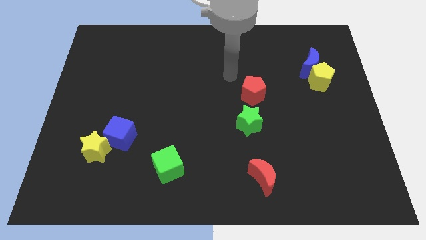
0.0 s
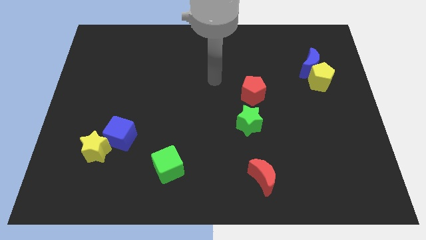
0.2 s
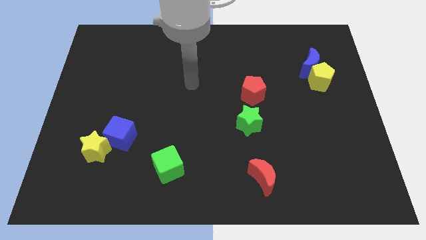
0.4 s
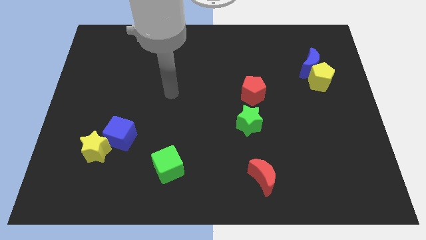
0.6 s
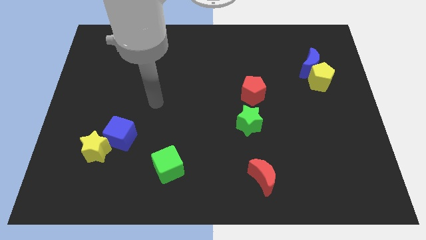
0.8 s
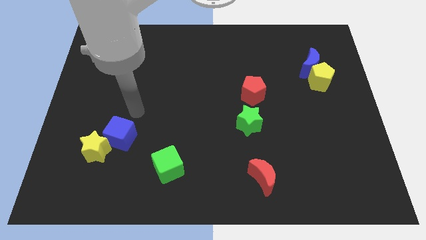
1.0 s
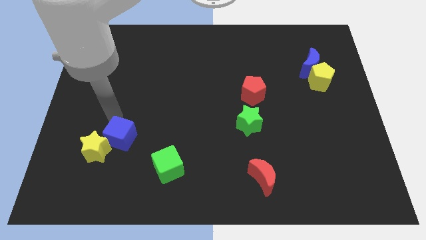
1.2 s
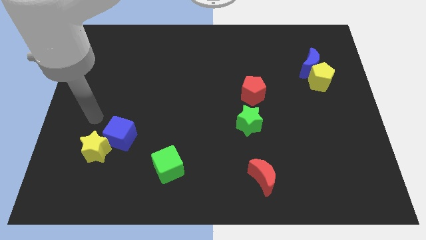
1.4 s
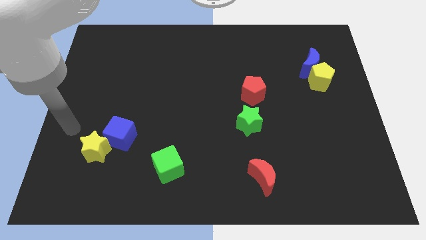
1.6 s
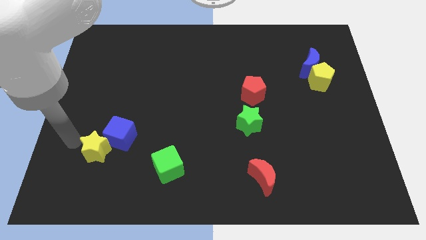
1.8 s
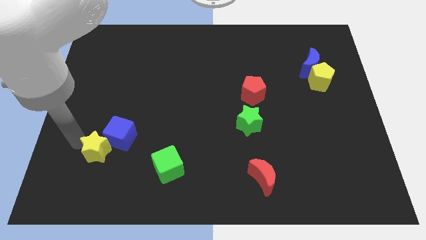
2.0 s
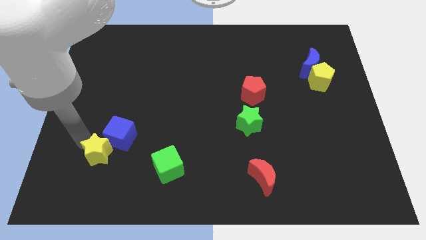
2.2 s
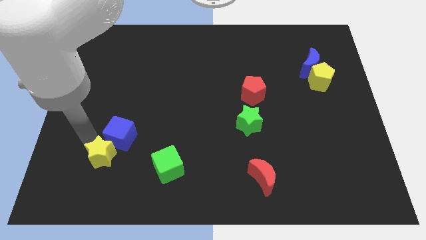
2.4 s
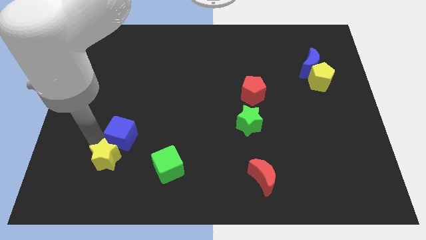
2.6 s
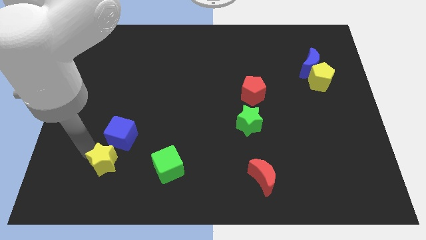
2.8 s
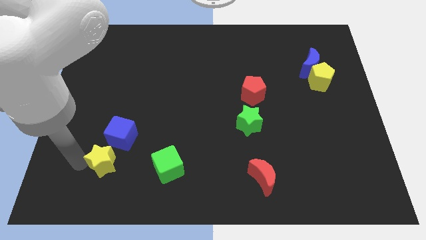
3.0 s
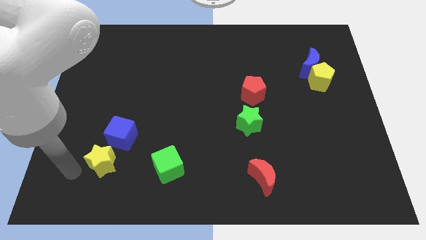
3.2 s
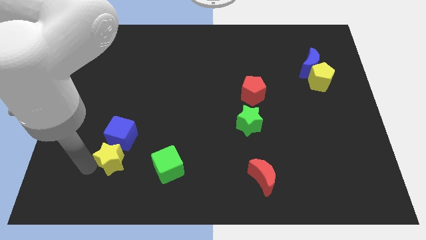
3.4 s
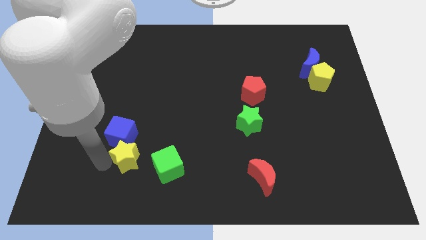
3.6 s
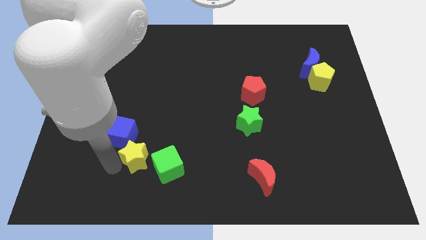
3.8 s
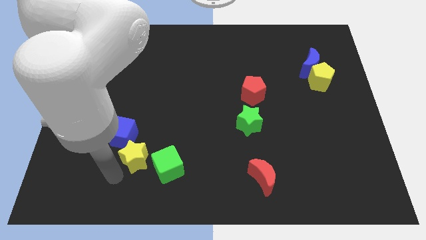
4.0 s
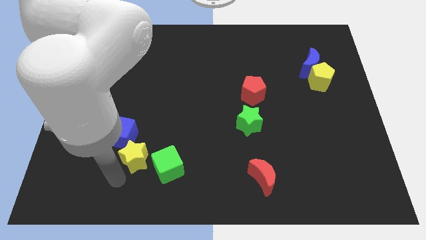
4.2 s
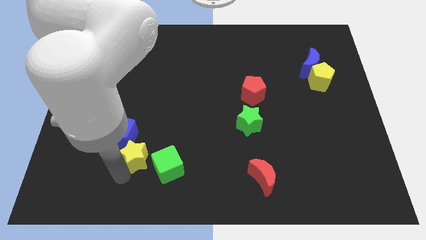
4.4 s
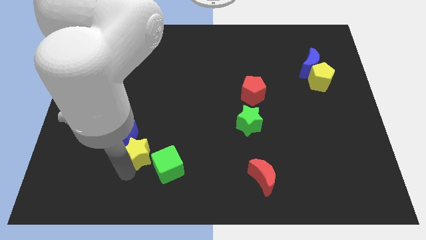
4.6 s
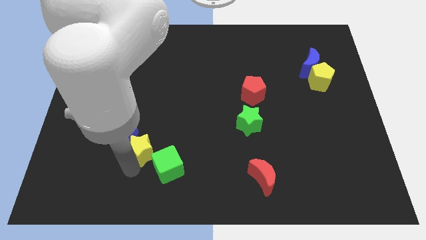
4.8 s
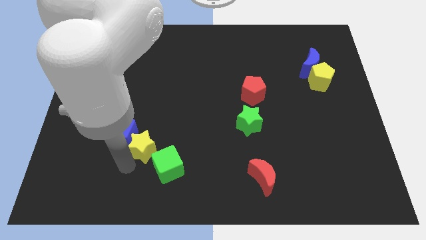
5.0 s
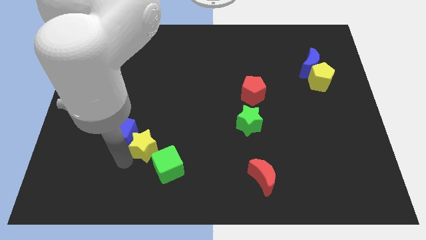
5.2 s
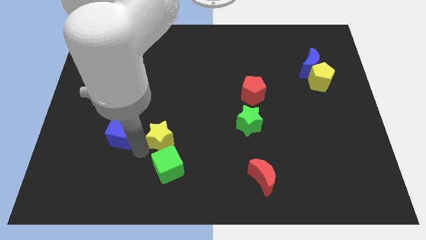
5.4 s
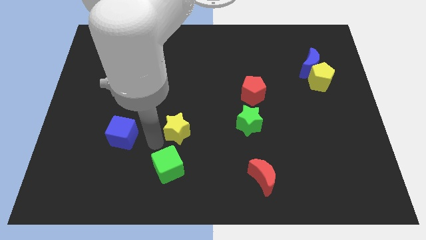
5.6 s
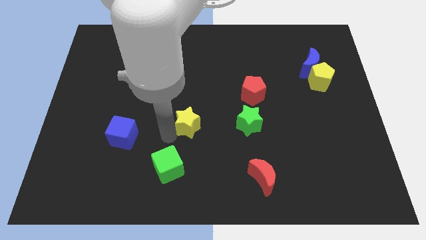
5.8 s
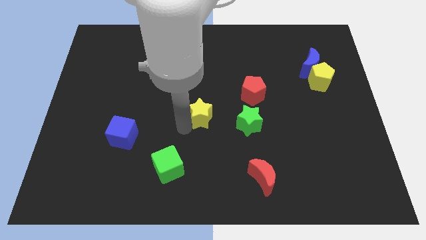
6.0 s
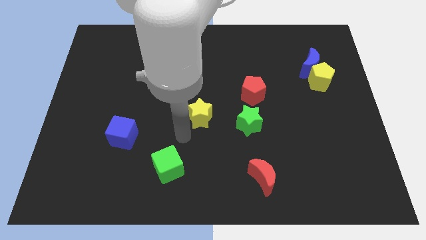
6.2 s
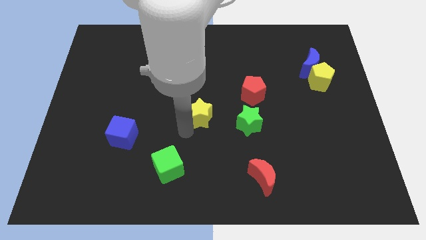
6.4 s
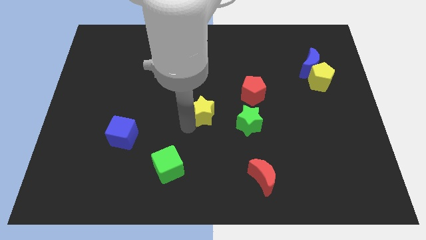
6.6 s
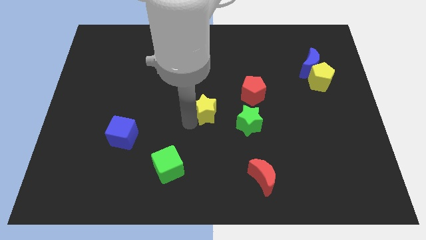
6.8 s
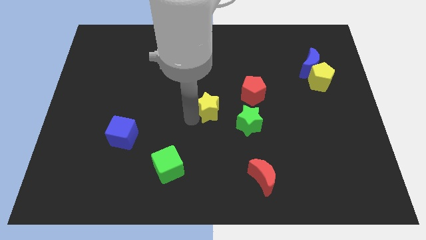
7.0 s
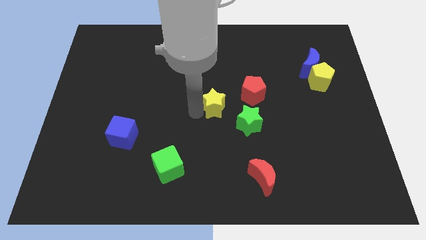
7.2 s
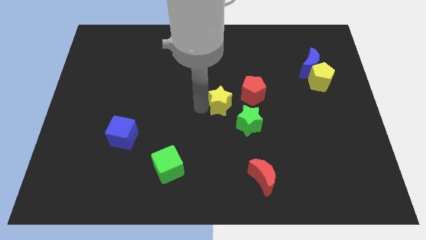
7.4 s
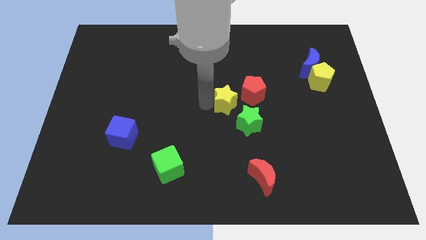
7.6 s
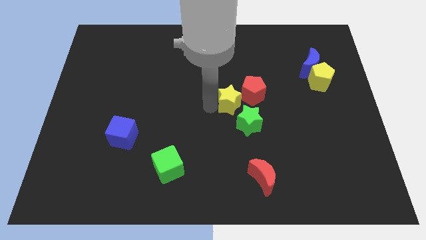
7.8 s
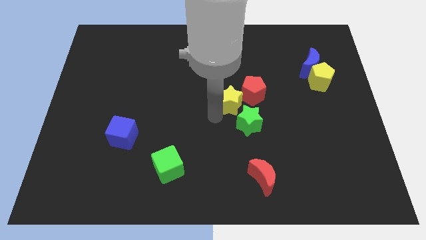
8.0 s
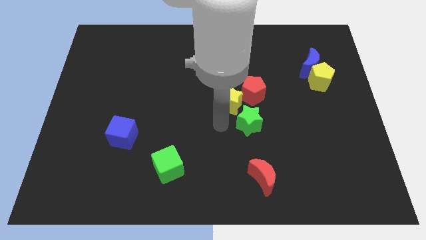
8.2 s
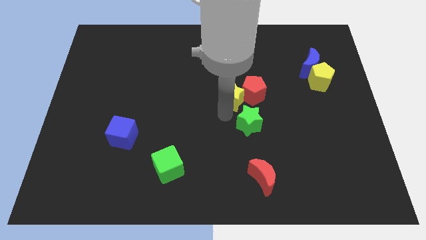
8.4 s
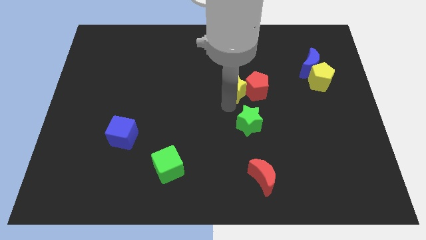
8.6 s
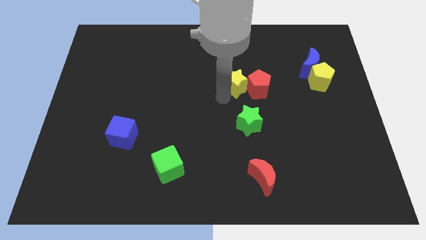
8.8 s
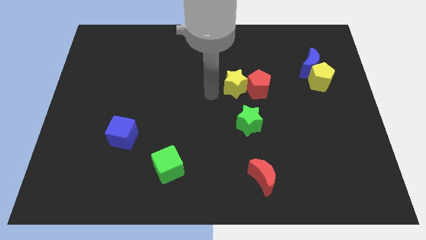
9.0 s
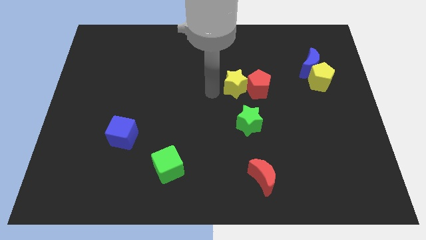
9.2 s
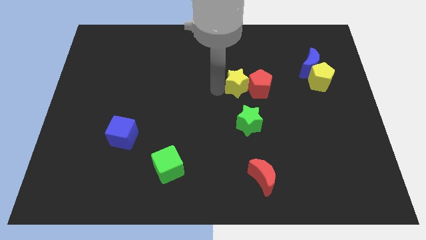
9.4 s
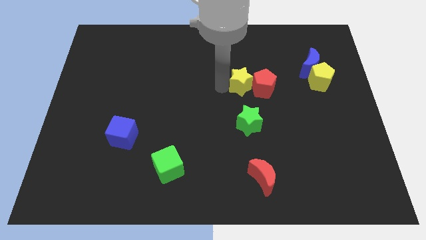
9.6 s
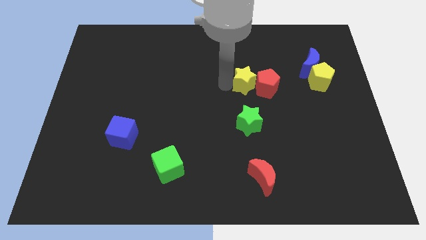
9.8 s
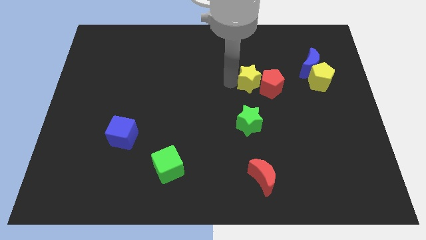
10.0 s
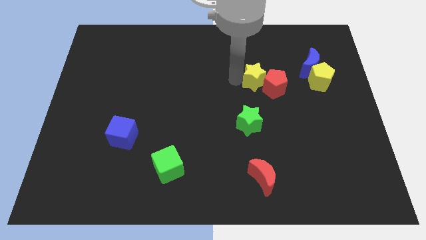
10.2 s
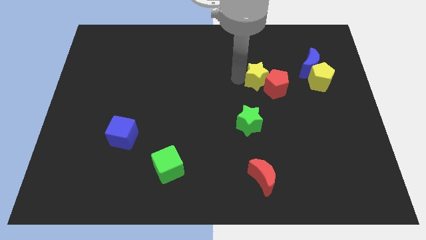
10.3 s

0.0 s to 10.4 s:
put the yellow star left of the blue moon

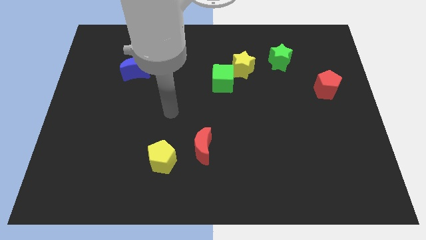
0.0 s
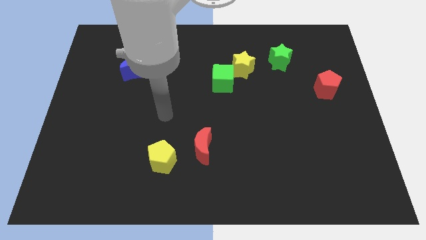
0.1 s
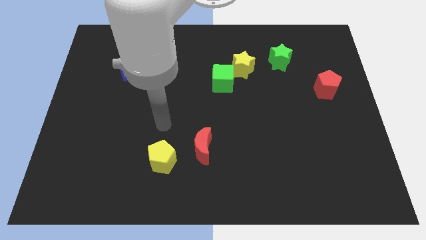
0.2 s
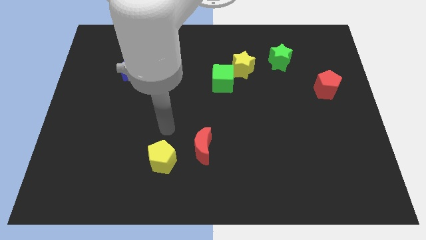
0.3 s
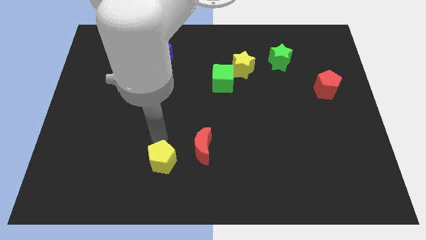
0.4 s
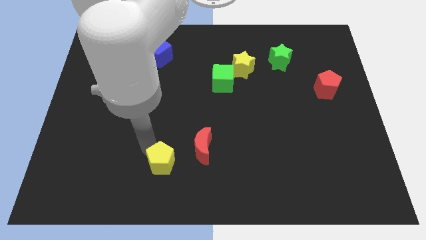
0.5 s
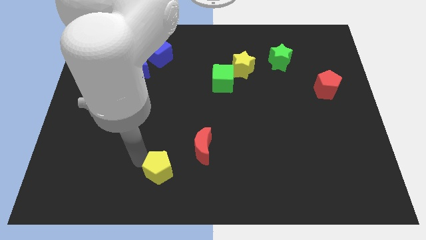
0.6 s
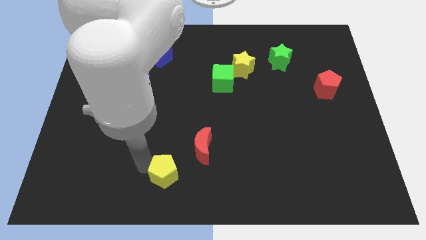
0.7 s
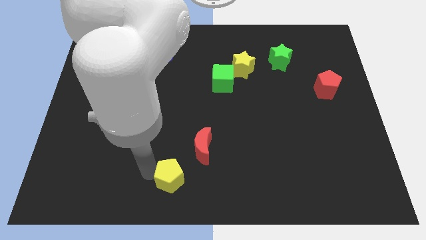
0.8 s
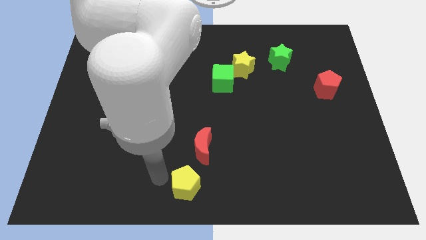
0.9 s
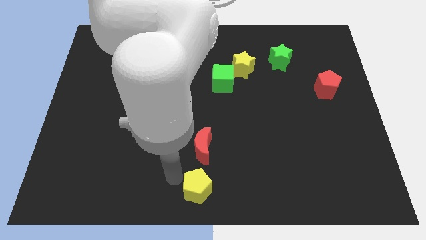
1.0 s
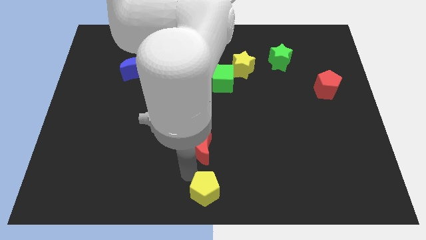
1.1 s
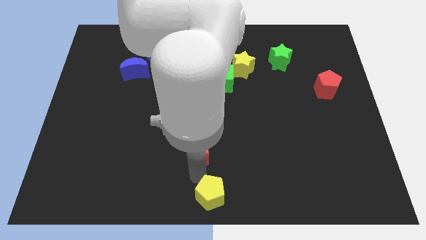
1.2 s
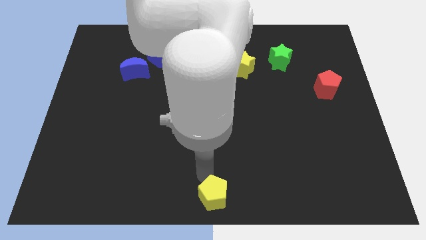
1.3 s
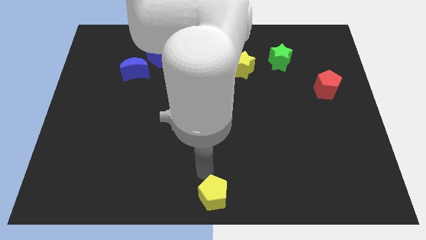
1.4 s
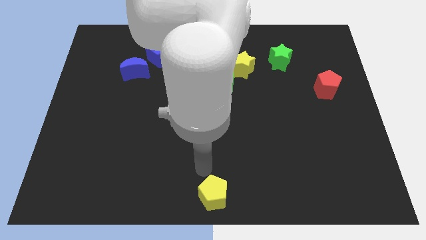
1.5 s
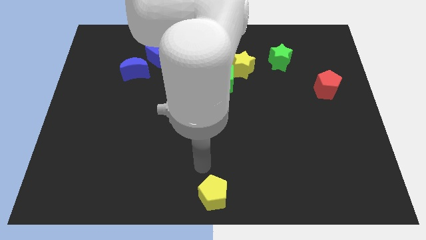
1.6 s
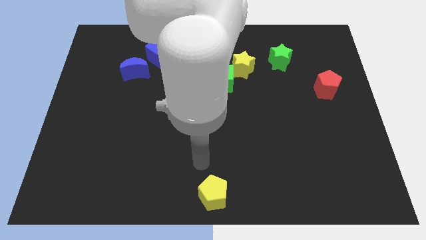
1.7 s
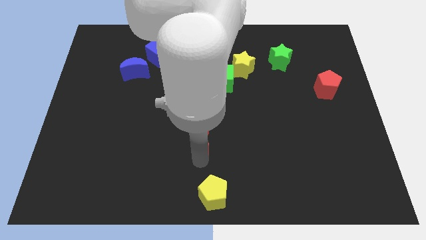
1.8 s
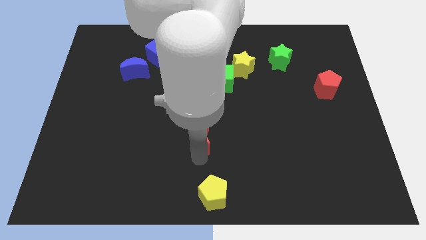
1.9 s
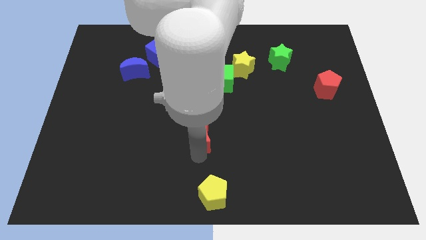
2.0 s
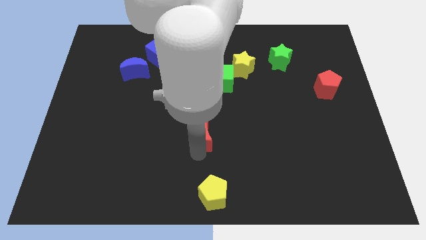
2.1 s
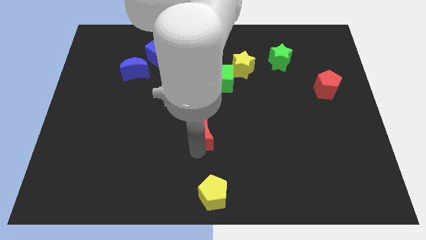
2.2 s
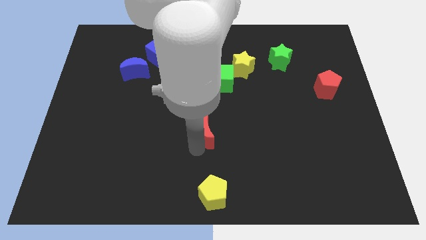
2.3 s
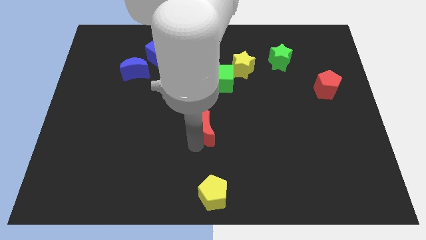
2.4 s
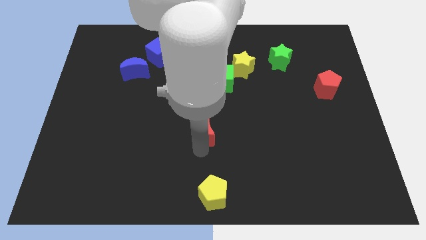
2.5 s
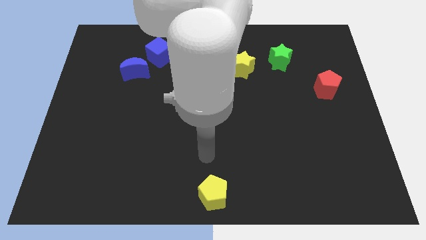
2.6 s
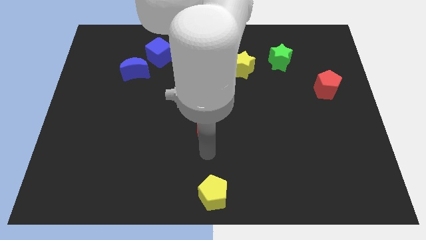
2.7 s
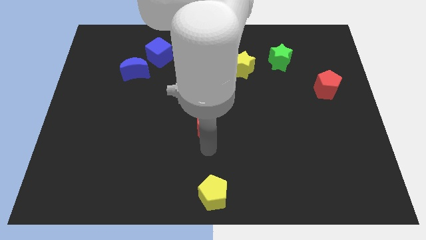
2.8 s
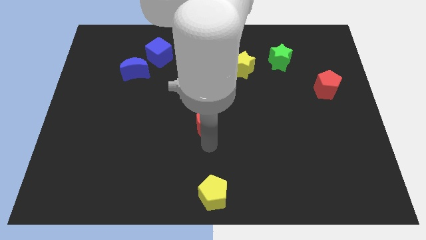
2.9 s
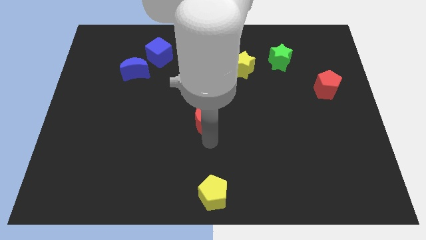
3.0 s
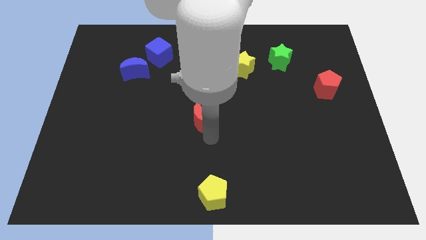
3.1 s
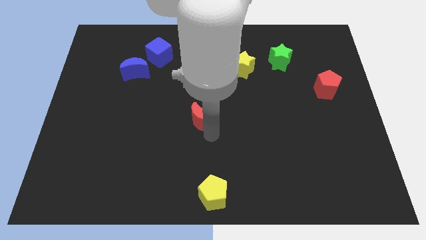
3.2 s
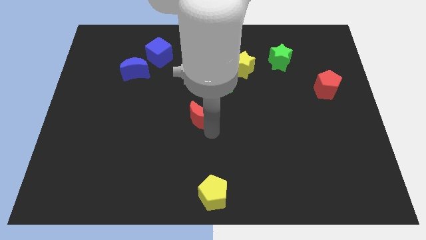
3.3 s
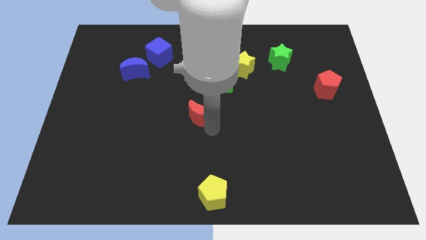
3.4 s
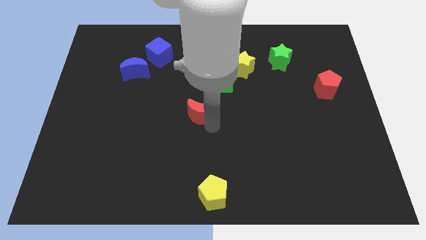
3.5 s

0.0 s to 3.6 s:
move the red moon to the bottom left of the green cube
